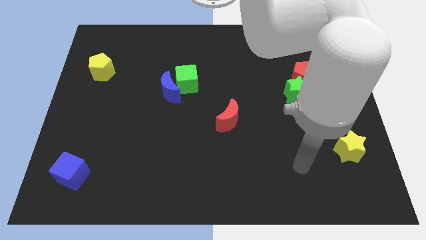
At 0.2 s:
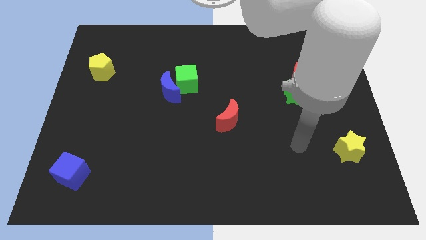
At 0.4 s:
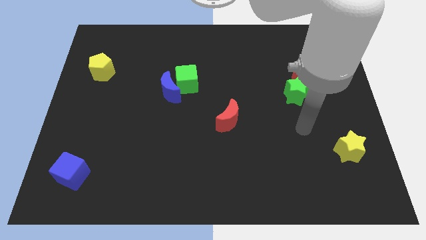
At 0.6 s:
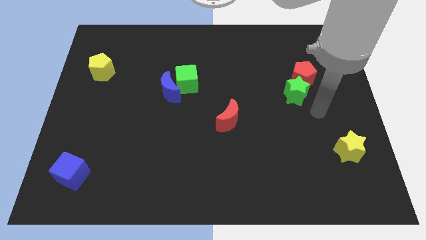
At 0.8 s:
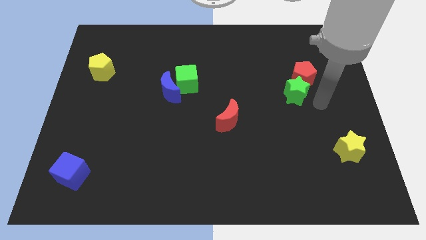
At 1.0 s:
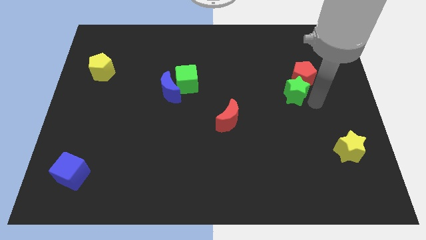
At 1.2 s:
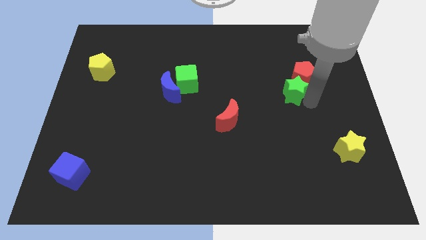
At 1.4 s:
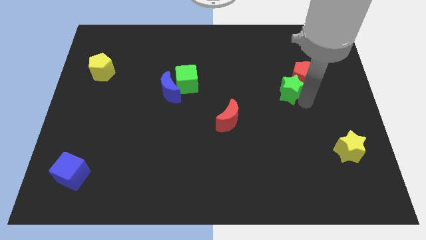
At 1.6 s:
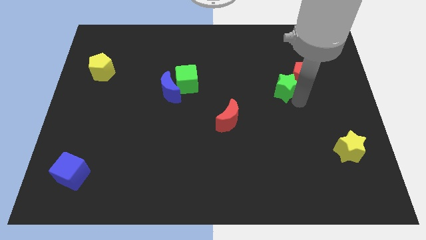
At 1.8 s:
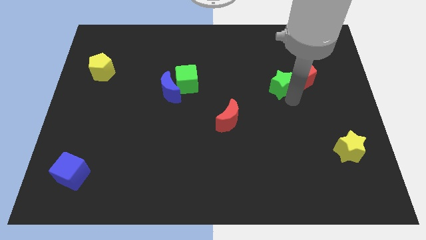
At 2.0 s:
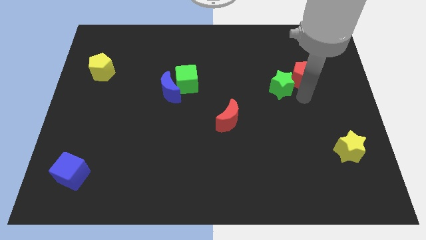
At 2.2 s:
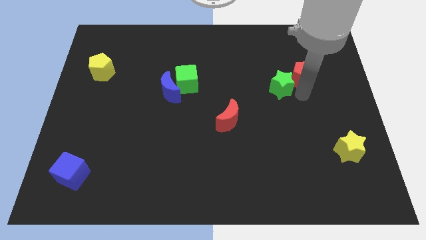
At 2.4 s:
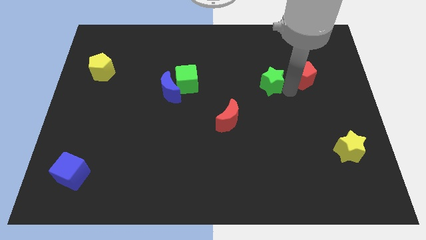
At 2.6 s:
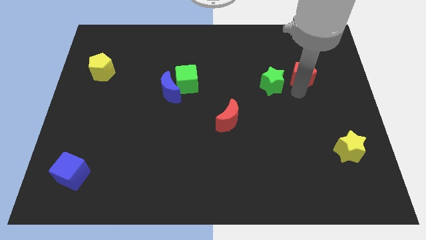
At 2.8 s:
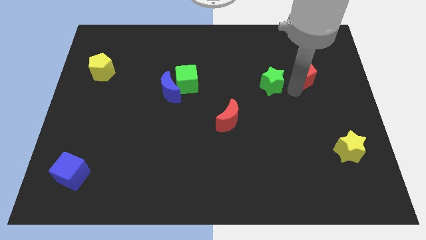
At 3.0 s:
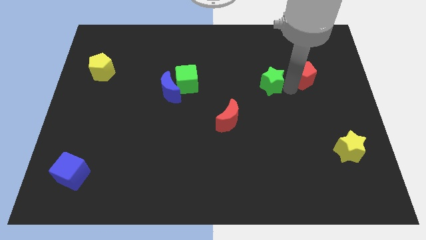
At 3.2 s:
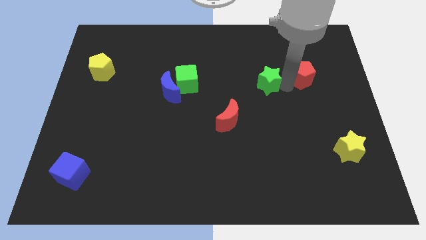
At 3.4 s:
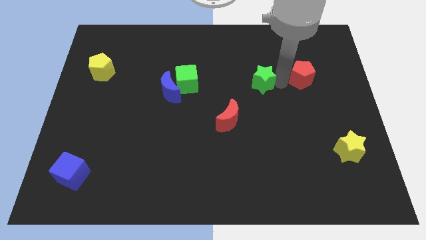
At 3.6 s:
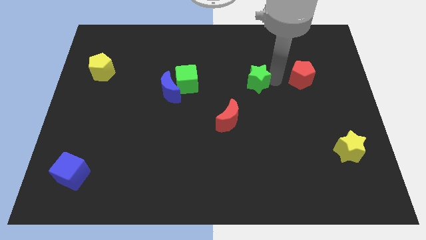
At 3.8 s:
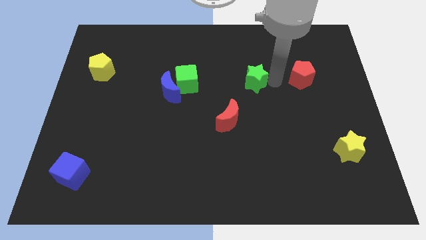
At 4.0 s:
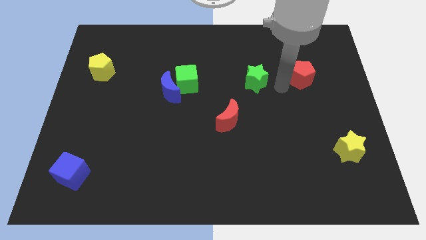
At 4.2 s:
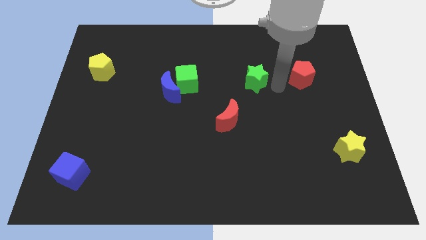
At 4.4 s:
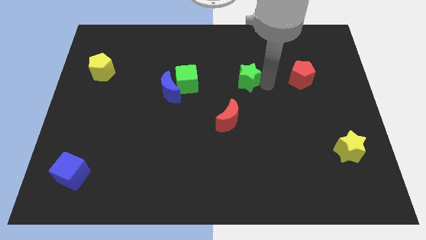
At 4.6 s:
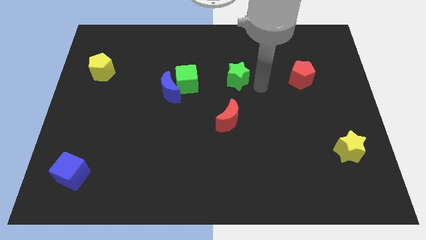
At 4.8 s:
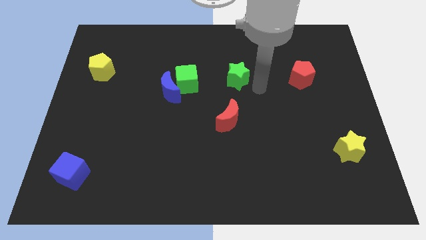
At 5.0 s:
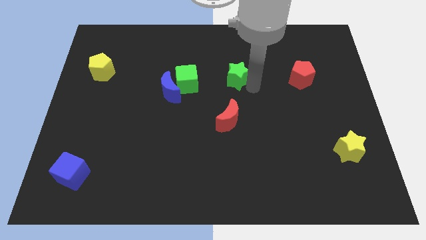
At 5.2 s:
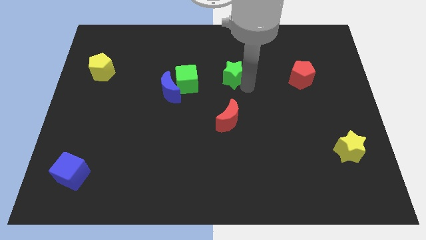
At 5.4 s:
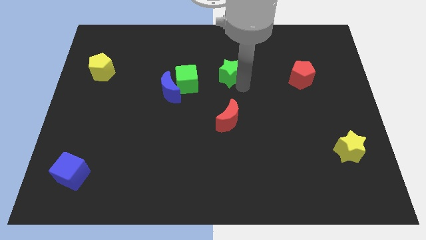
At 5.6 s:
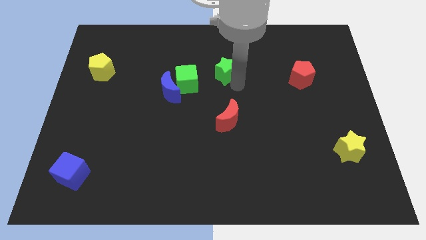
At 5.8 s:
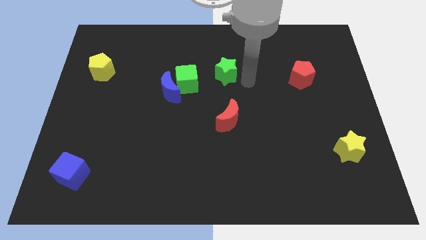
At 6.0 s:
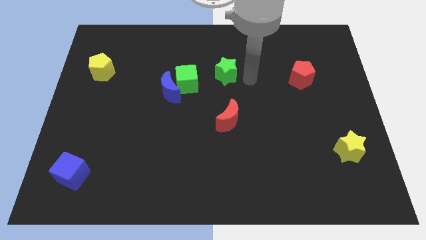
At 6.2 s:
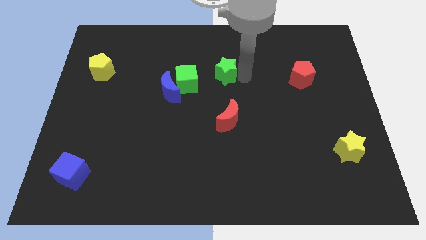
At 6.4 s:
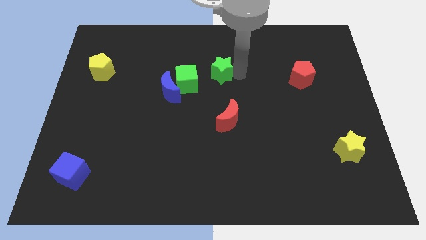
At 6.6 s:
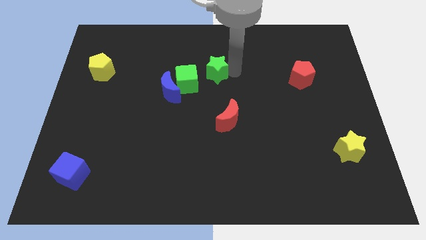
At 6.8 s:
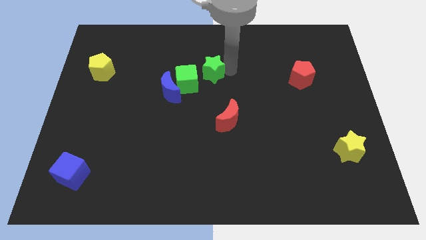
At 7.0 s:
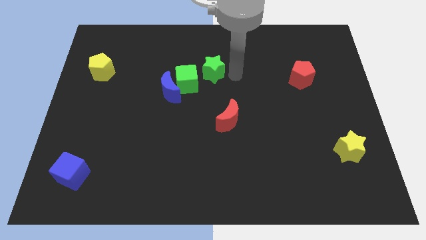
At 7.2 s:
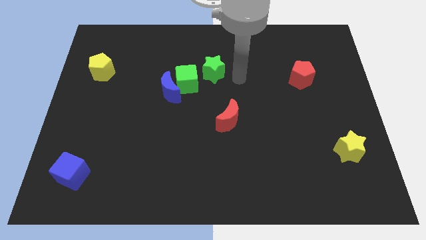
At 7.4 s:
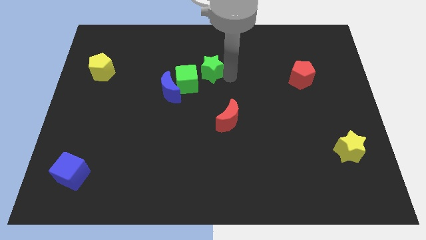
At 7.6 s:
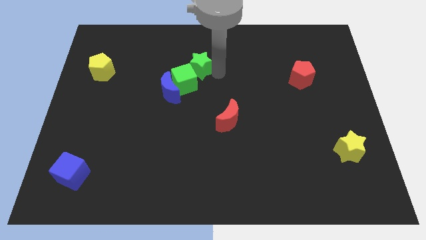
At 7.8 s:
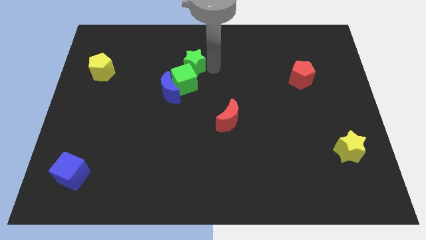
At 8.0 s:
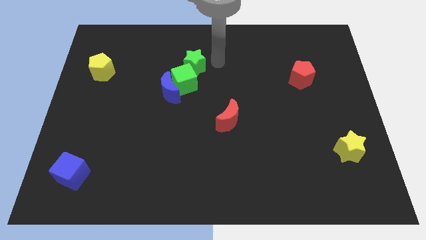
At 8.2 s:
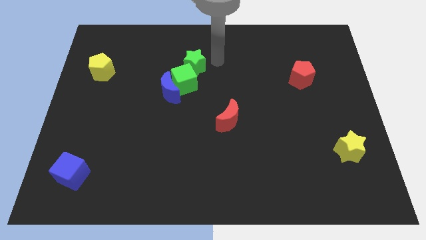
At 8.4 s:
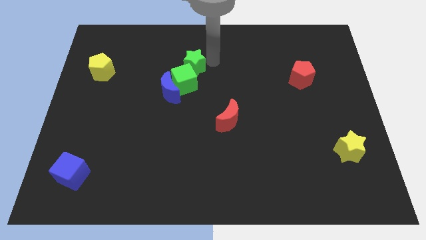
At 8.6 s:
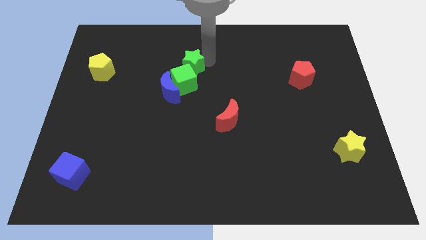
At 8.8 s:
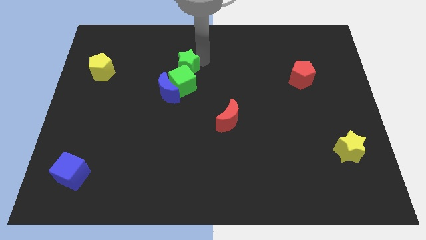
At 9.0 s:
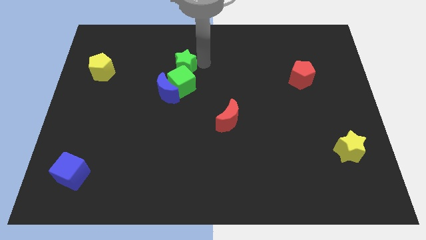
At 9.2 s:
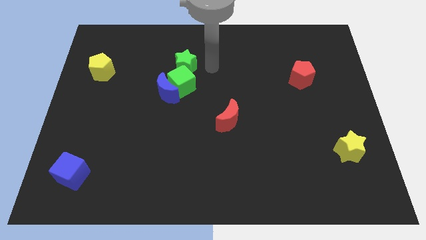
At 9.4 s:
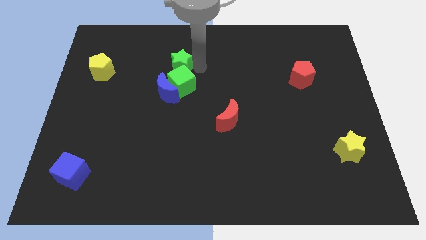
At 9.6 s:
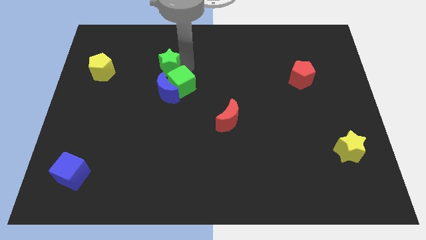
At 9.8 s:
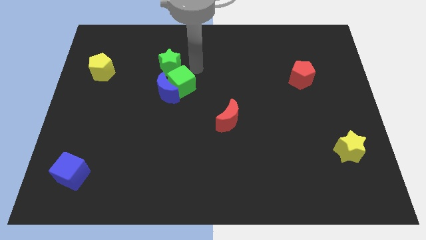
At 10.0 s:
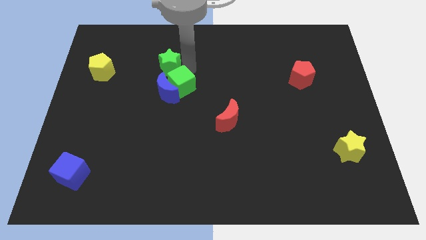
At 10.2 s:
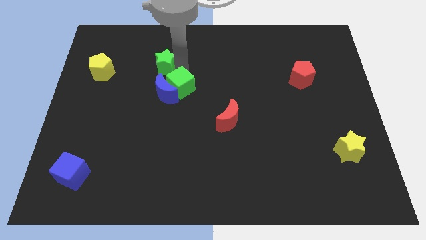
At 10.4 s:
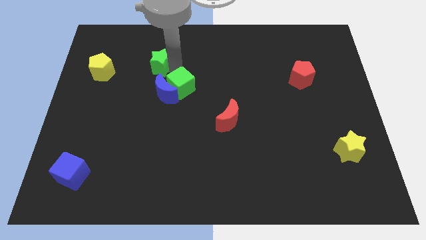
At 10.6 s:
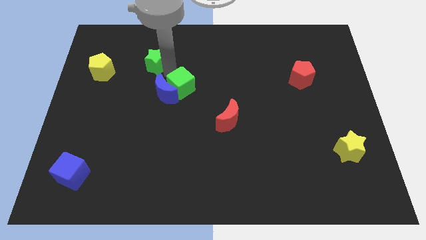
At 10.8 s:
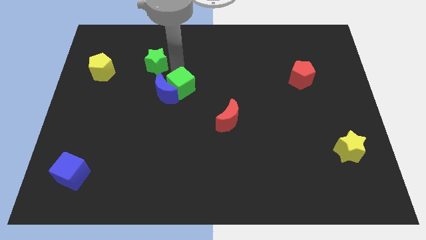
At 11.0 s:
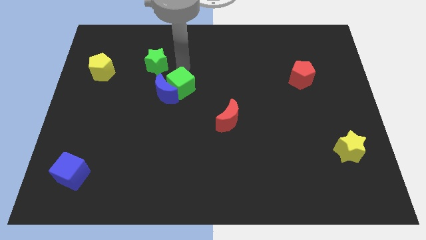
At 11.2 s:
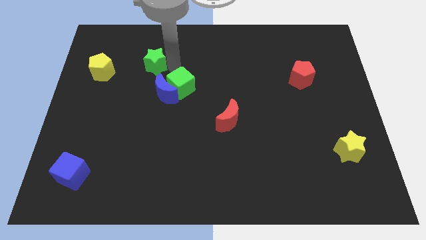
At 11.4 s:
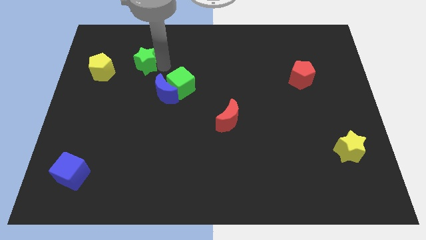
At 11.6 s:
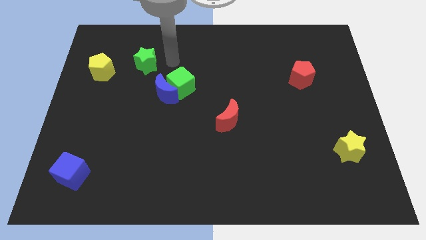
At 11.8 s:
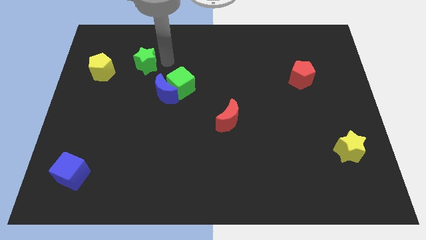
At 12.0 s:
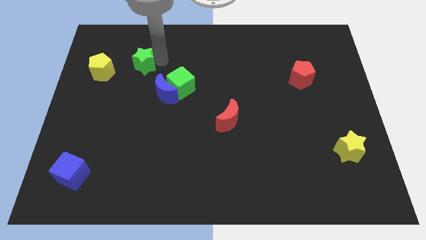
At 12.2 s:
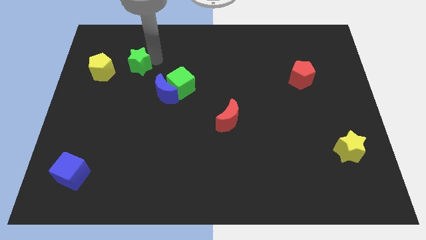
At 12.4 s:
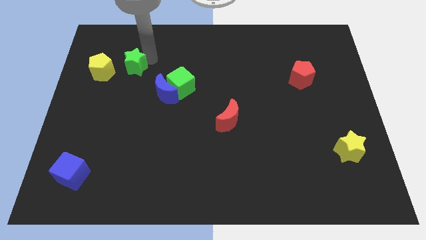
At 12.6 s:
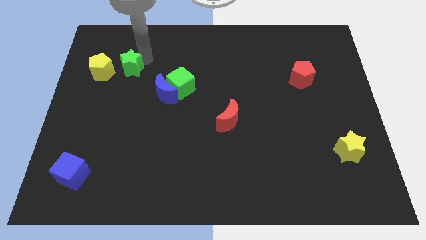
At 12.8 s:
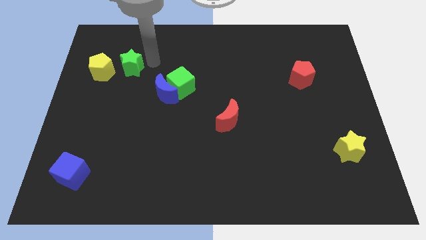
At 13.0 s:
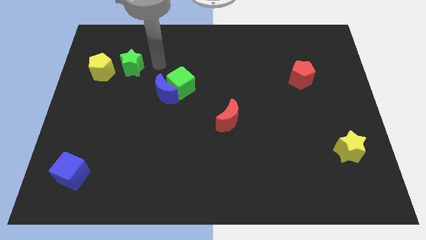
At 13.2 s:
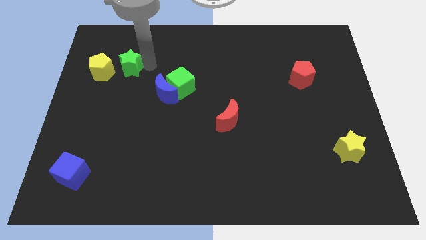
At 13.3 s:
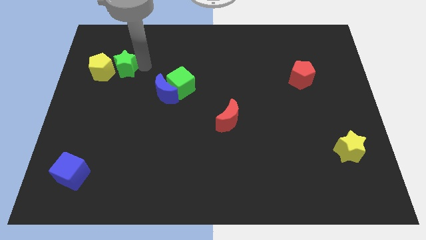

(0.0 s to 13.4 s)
push the green star next to the yellow pentagon

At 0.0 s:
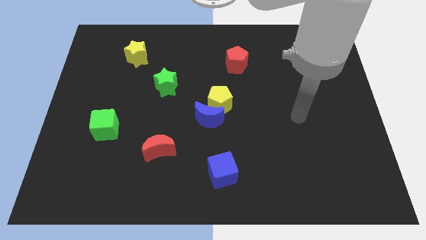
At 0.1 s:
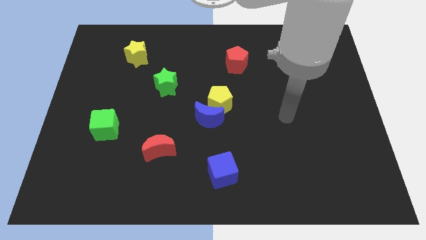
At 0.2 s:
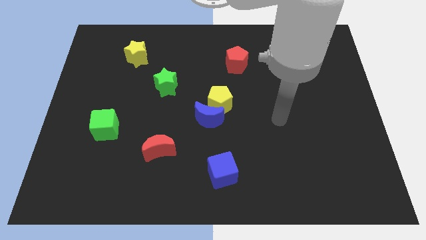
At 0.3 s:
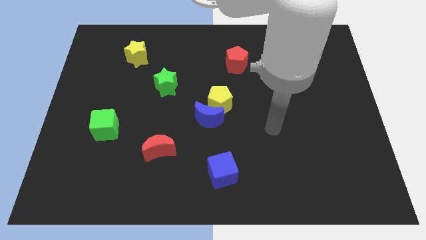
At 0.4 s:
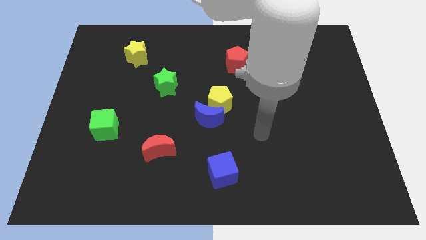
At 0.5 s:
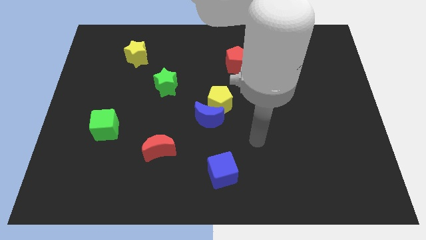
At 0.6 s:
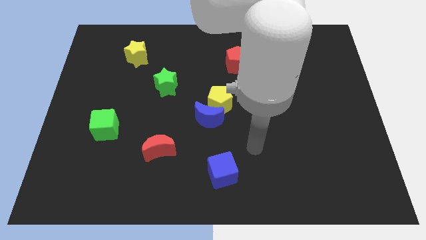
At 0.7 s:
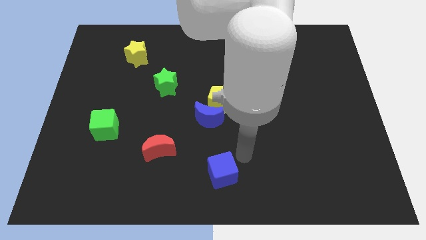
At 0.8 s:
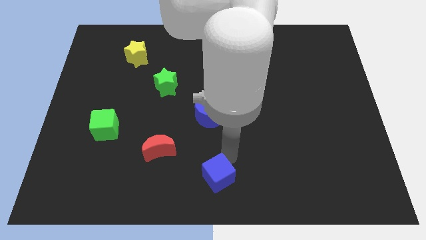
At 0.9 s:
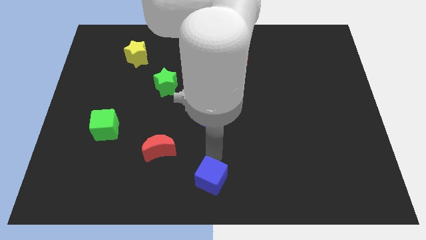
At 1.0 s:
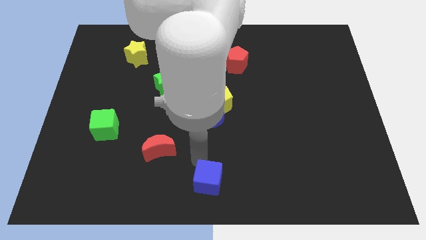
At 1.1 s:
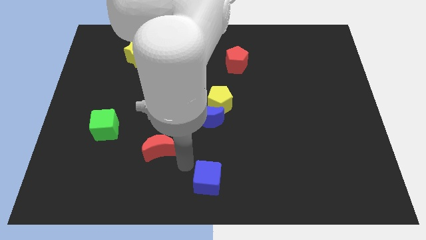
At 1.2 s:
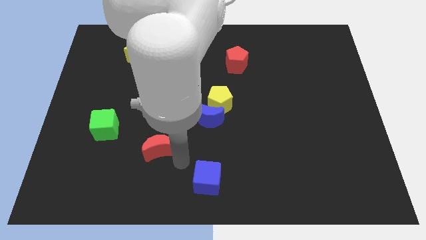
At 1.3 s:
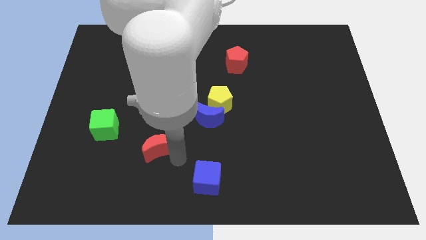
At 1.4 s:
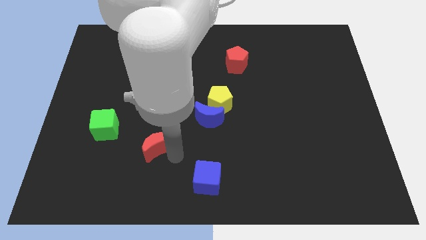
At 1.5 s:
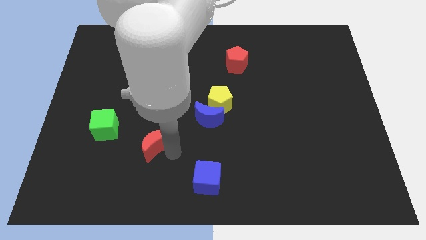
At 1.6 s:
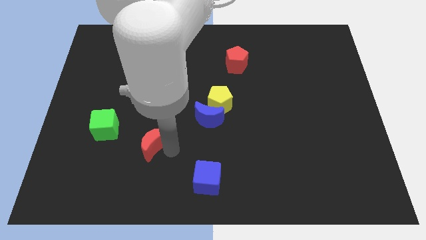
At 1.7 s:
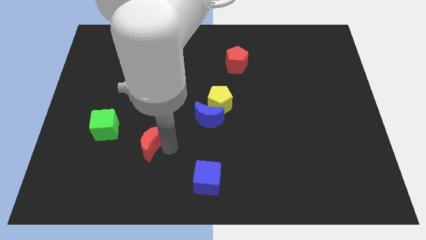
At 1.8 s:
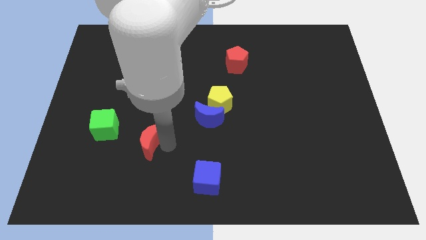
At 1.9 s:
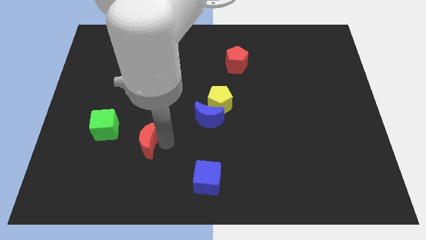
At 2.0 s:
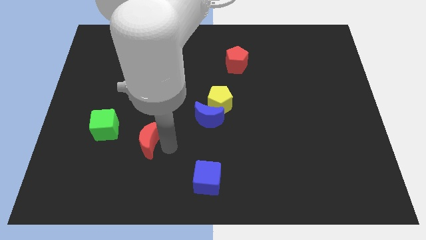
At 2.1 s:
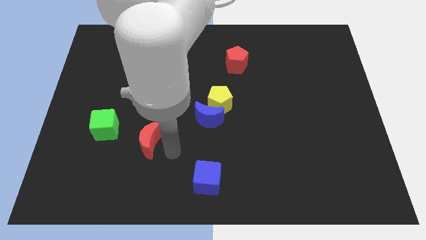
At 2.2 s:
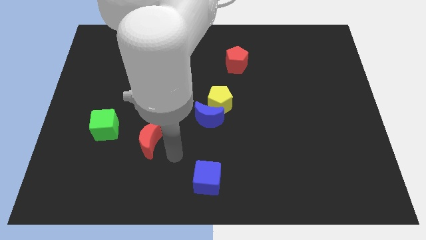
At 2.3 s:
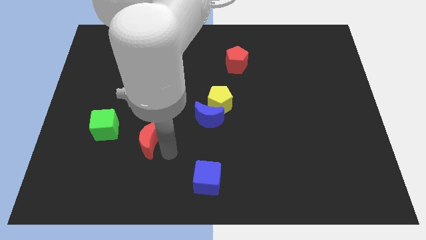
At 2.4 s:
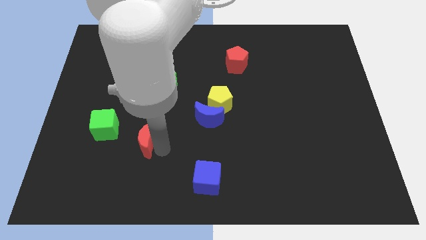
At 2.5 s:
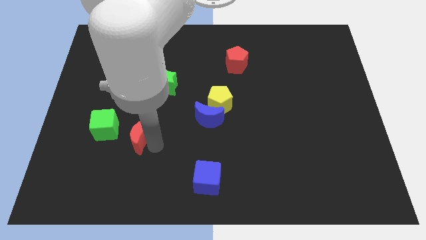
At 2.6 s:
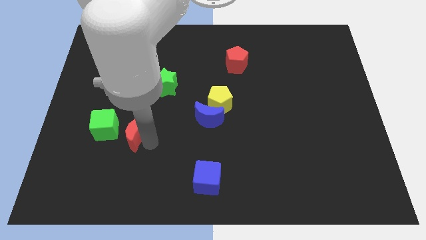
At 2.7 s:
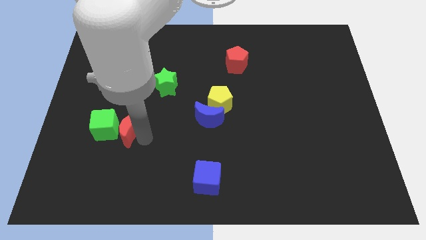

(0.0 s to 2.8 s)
put the red moon next to the green cube
